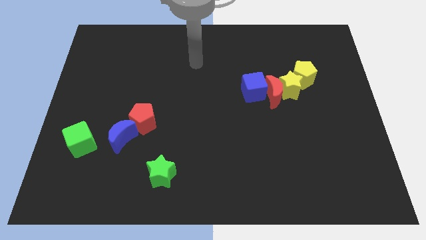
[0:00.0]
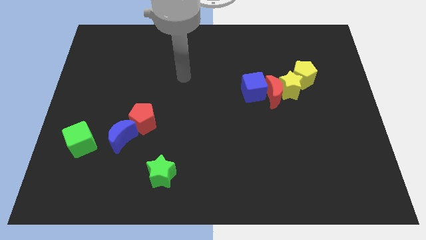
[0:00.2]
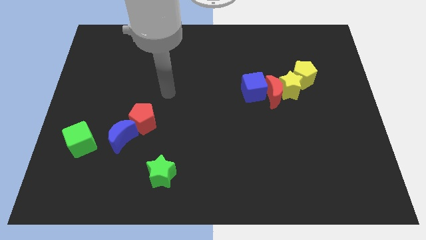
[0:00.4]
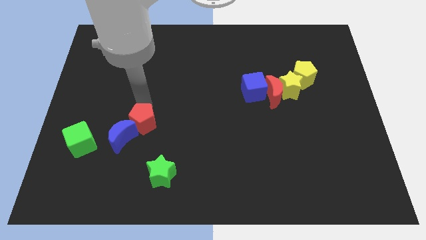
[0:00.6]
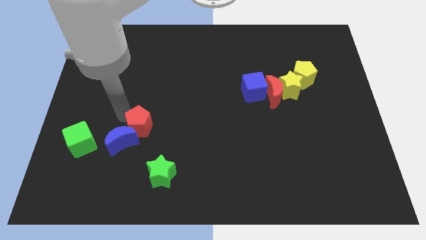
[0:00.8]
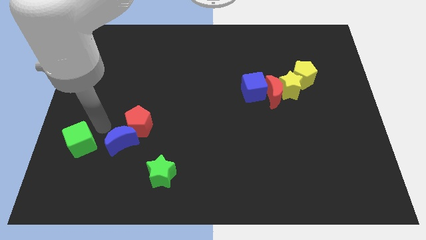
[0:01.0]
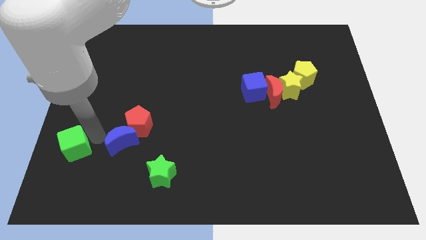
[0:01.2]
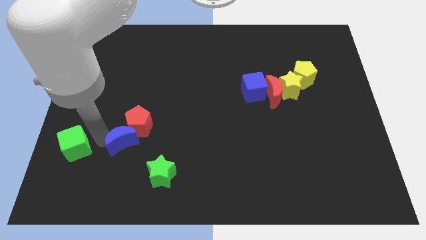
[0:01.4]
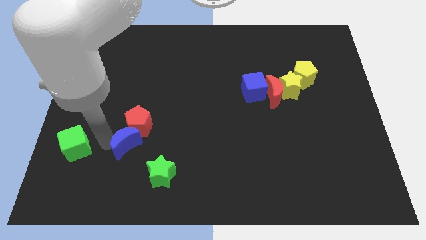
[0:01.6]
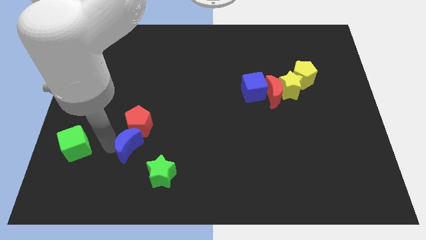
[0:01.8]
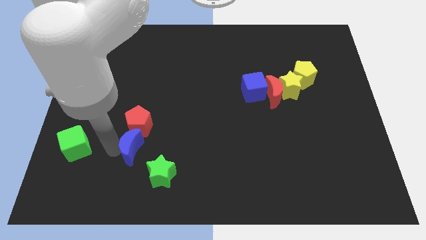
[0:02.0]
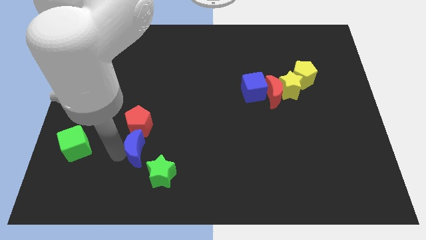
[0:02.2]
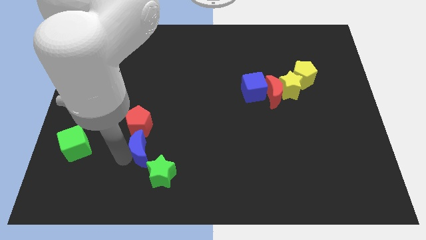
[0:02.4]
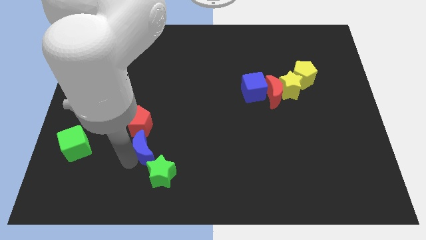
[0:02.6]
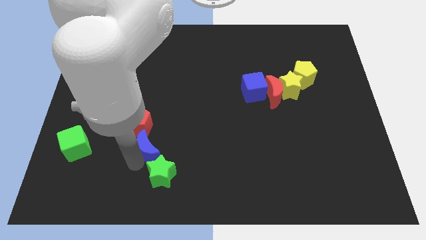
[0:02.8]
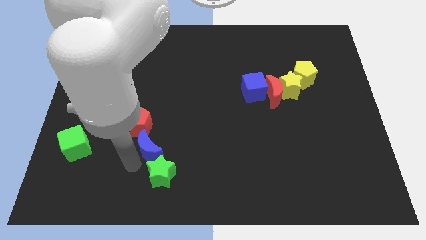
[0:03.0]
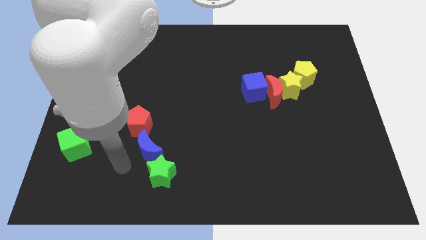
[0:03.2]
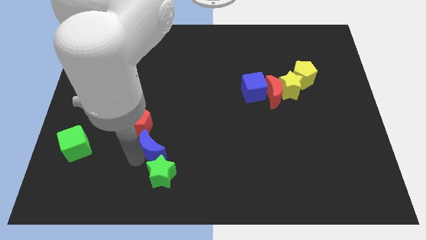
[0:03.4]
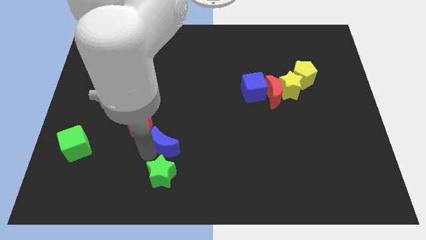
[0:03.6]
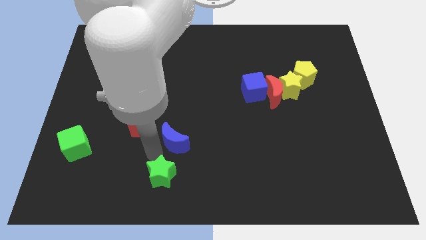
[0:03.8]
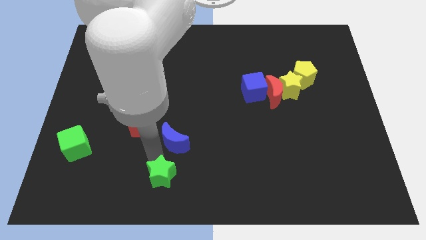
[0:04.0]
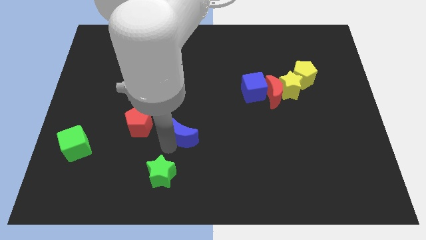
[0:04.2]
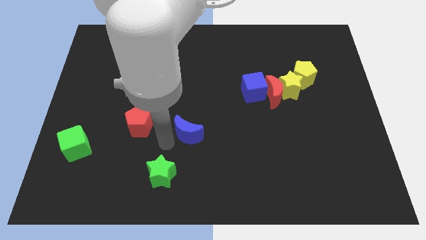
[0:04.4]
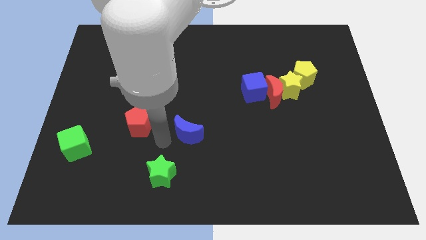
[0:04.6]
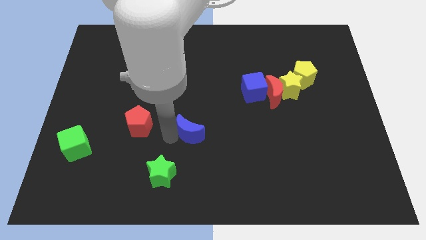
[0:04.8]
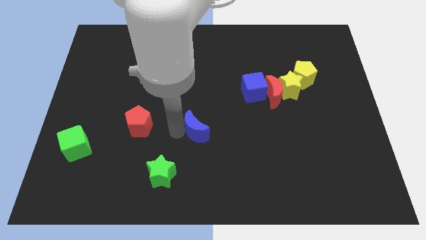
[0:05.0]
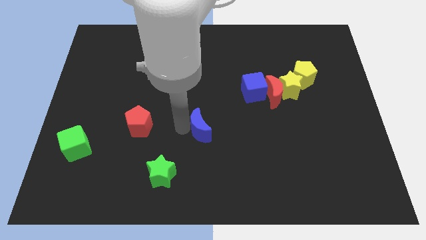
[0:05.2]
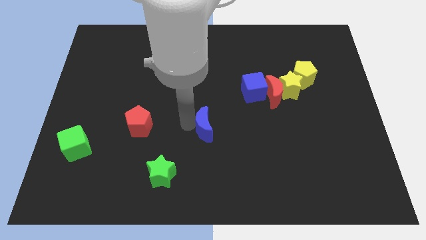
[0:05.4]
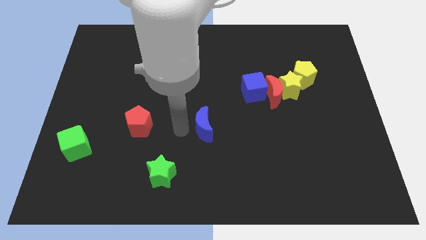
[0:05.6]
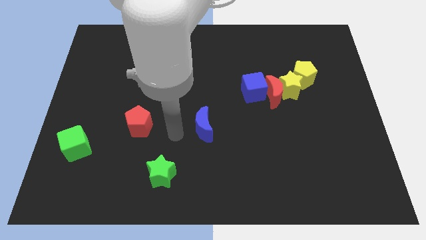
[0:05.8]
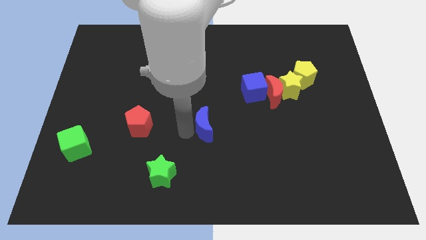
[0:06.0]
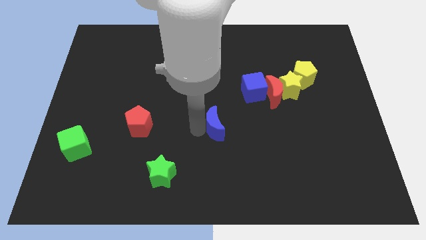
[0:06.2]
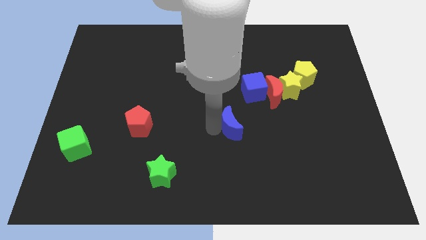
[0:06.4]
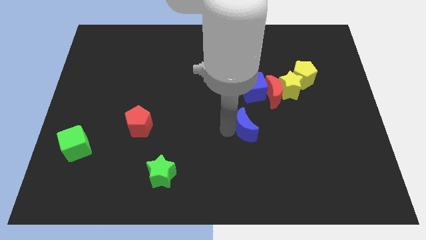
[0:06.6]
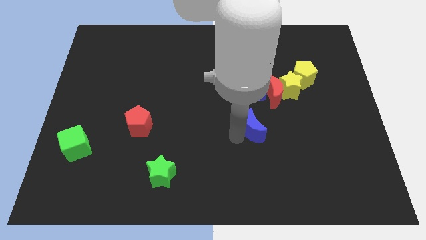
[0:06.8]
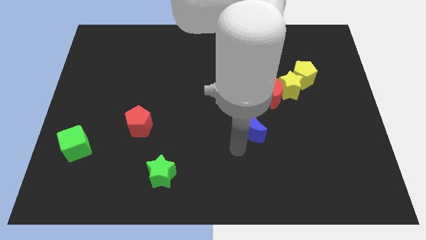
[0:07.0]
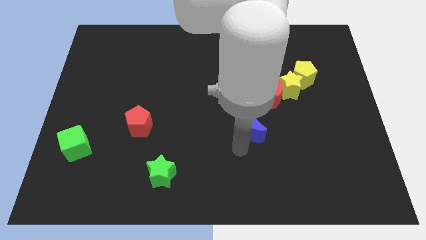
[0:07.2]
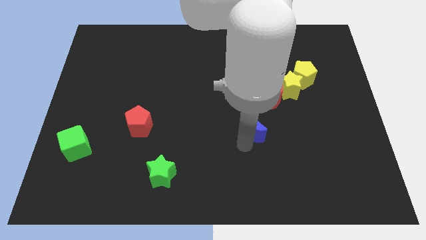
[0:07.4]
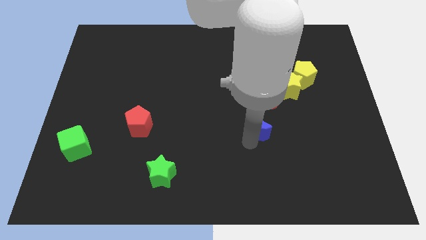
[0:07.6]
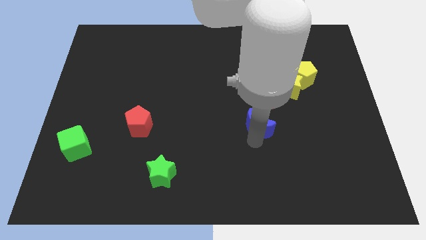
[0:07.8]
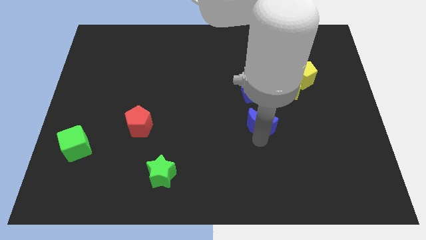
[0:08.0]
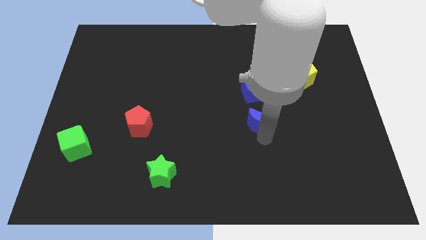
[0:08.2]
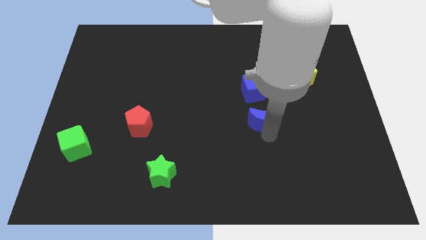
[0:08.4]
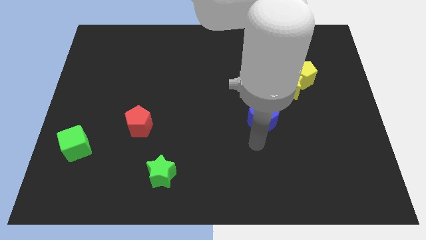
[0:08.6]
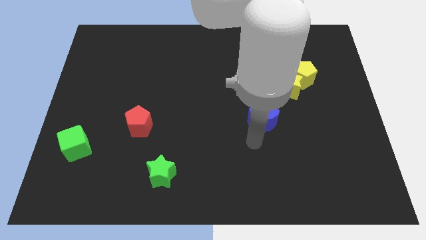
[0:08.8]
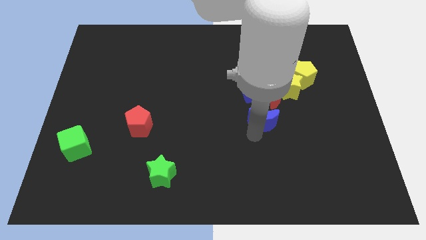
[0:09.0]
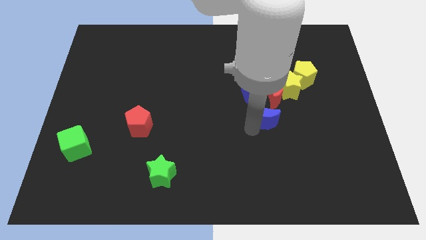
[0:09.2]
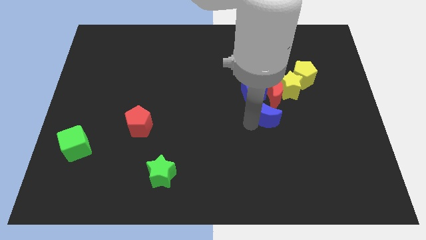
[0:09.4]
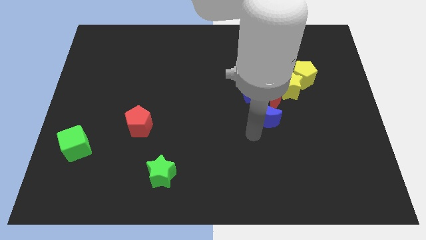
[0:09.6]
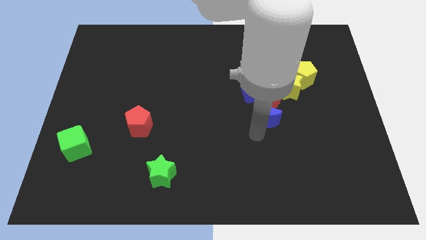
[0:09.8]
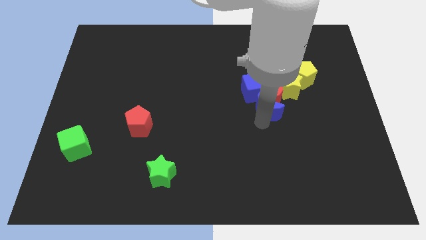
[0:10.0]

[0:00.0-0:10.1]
put the blue moon next to the red moon

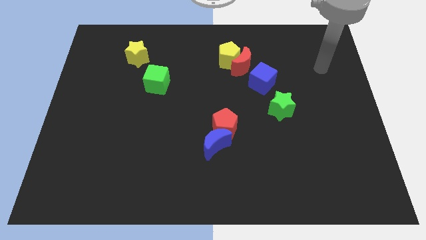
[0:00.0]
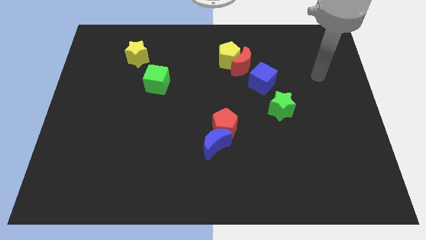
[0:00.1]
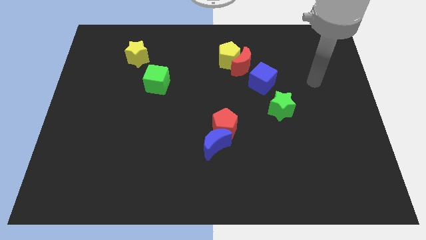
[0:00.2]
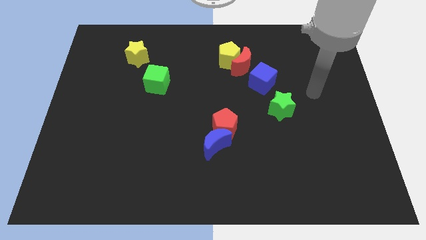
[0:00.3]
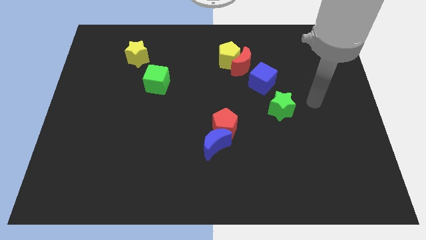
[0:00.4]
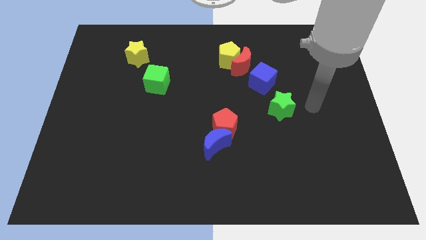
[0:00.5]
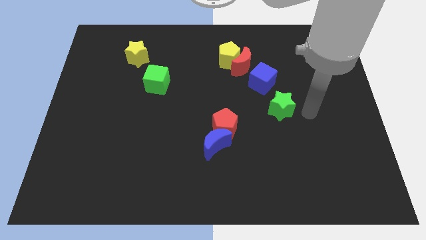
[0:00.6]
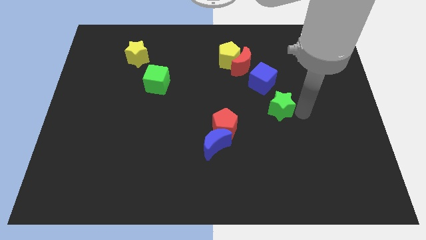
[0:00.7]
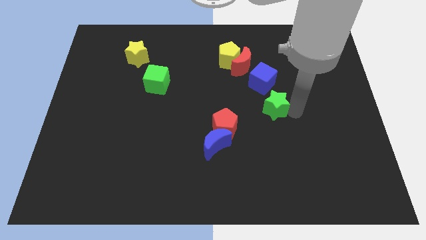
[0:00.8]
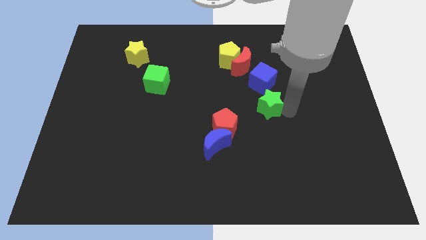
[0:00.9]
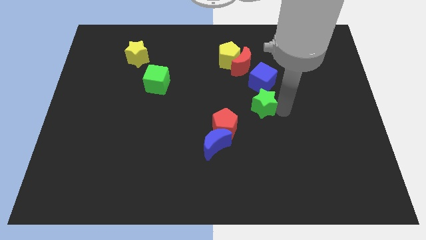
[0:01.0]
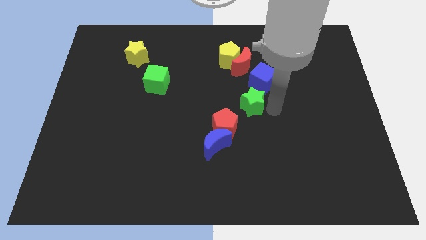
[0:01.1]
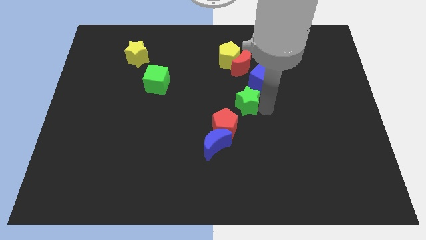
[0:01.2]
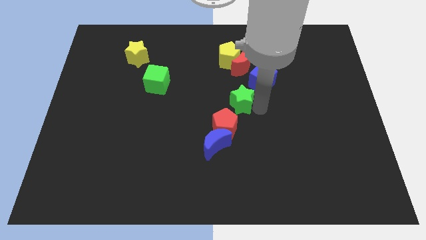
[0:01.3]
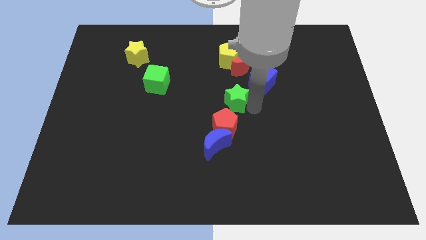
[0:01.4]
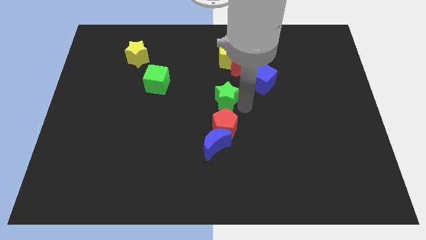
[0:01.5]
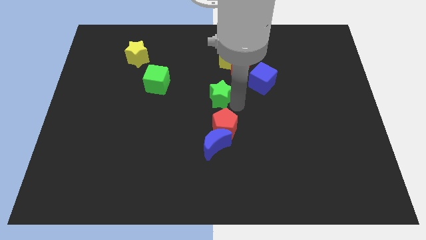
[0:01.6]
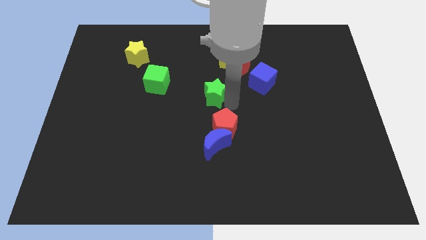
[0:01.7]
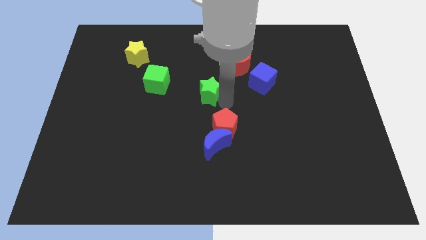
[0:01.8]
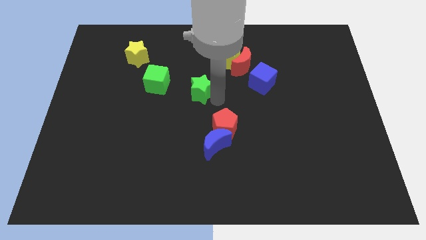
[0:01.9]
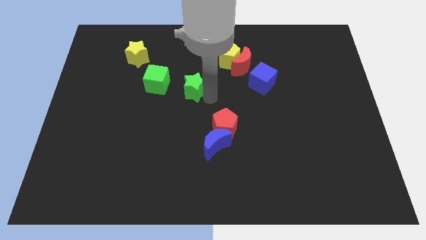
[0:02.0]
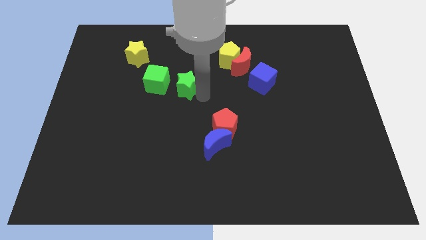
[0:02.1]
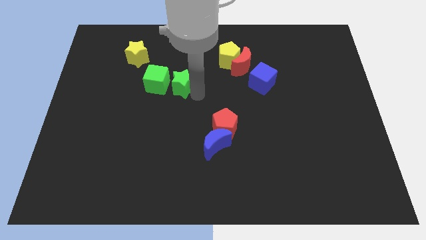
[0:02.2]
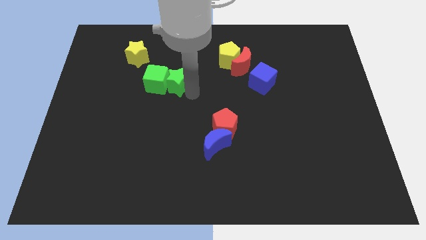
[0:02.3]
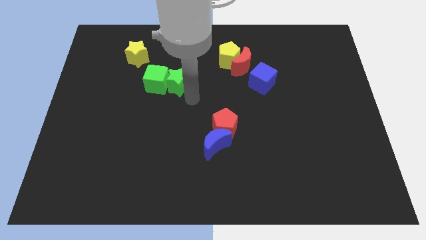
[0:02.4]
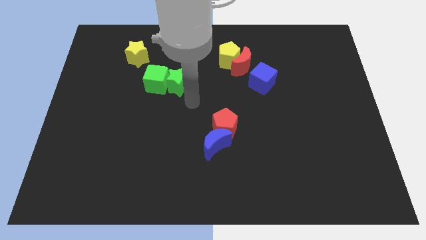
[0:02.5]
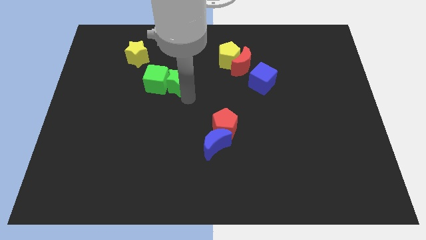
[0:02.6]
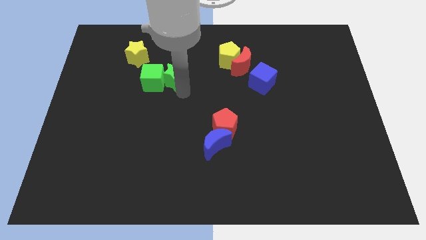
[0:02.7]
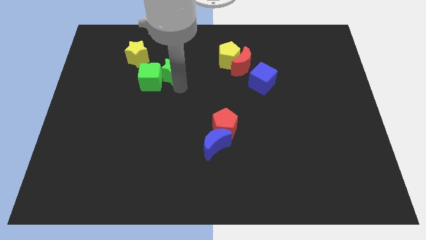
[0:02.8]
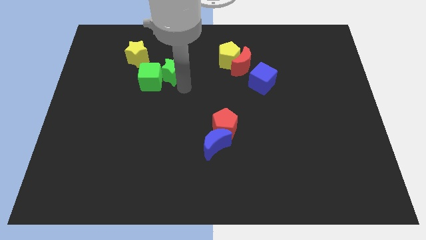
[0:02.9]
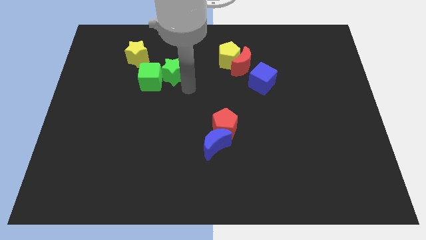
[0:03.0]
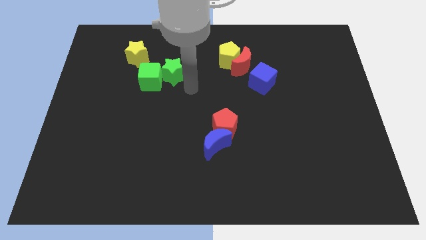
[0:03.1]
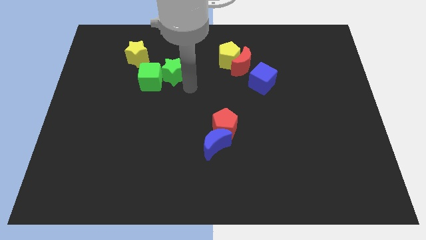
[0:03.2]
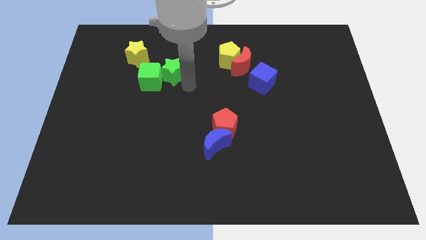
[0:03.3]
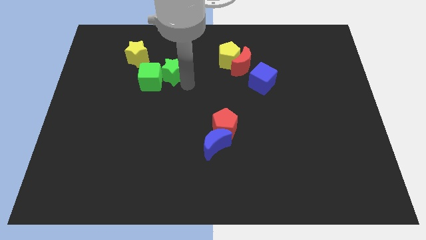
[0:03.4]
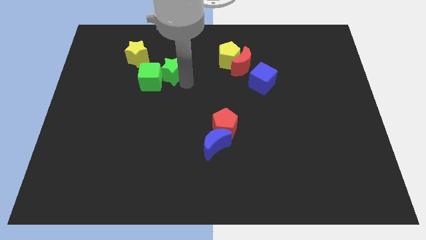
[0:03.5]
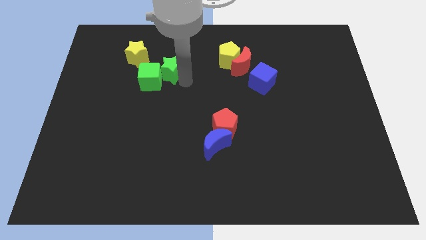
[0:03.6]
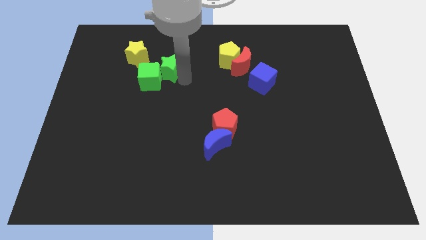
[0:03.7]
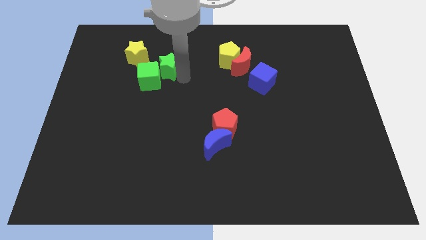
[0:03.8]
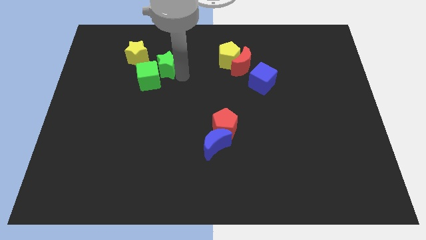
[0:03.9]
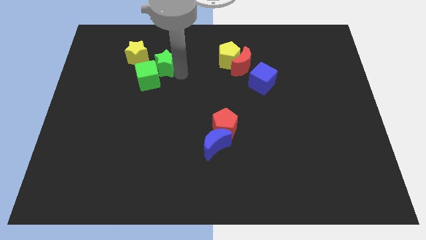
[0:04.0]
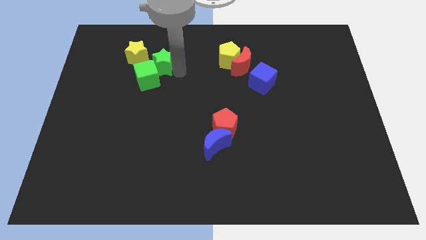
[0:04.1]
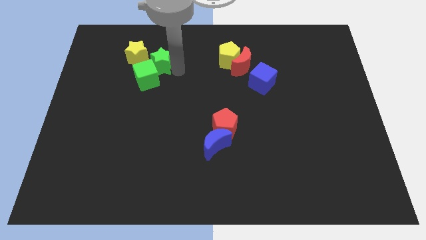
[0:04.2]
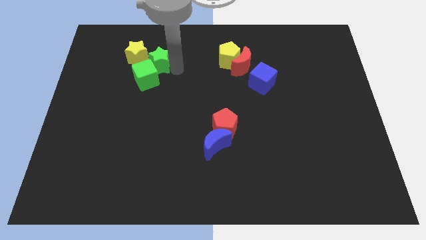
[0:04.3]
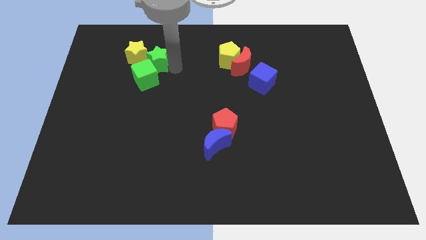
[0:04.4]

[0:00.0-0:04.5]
slide the green star to the yellow star
